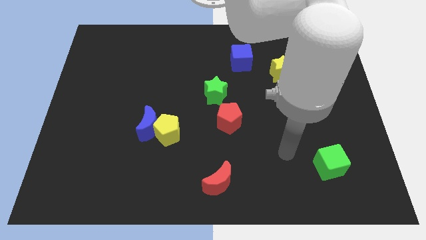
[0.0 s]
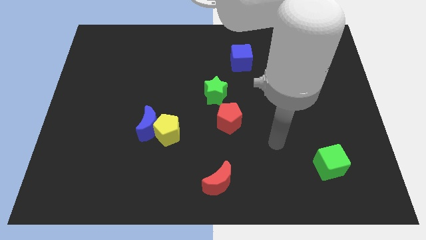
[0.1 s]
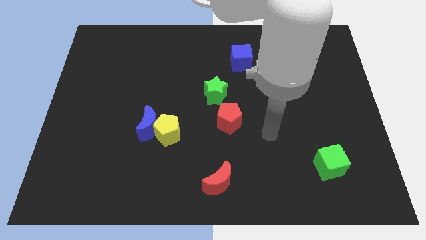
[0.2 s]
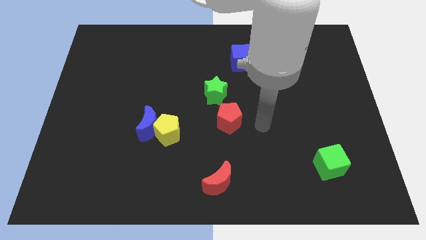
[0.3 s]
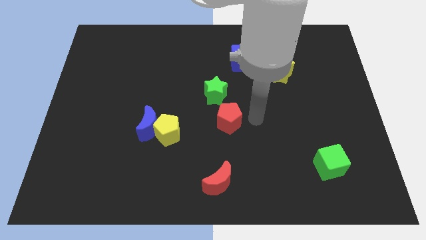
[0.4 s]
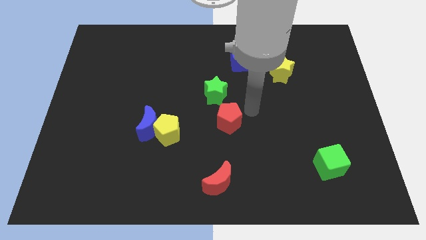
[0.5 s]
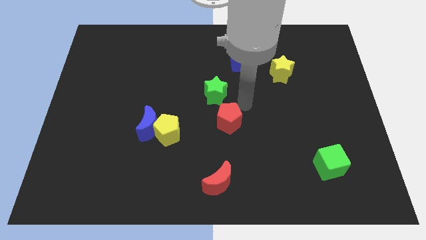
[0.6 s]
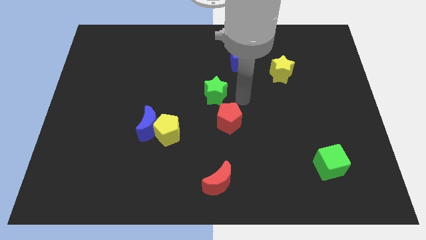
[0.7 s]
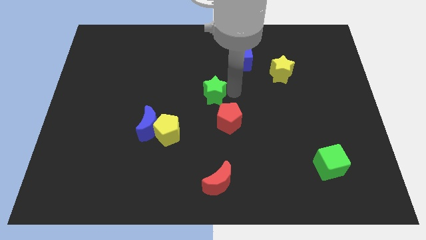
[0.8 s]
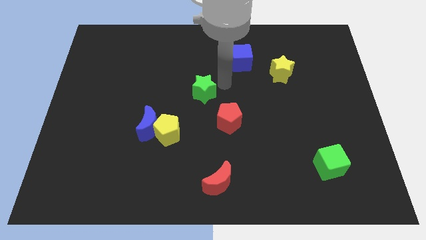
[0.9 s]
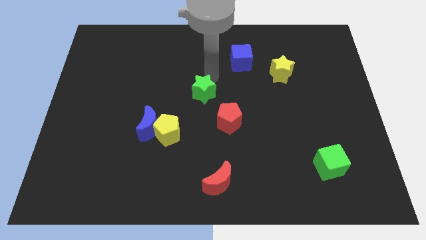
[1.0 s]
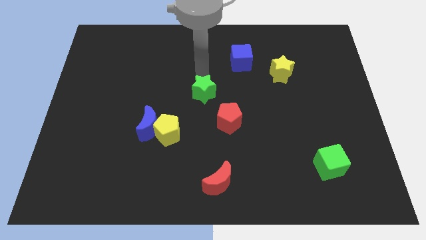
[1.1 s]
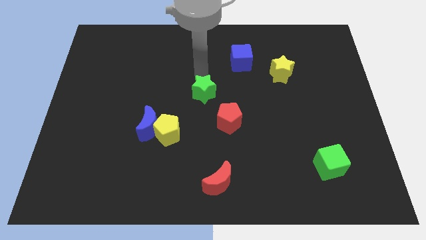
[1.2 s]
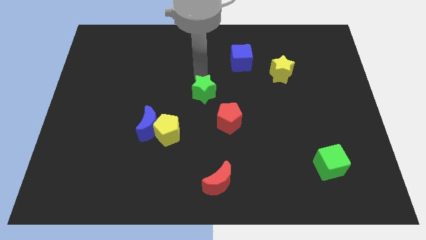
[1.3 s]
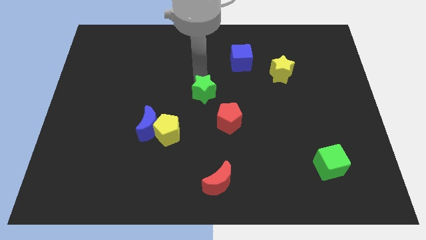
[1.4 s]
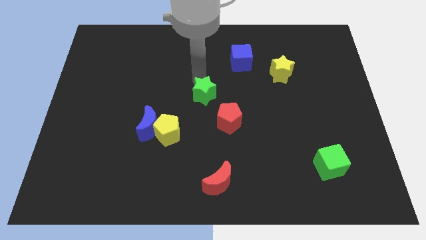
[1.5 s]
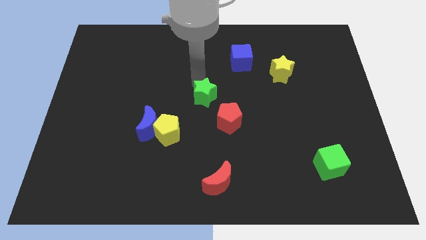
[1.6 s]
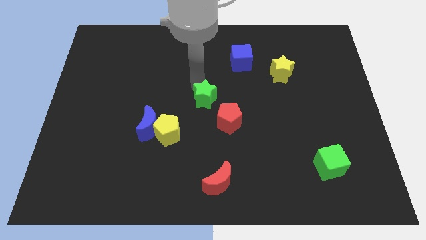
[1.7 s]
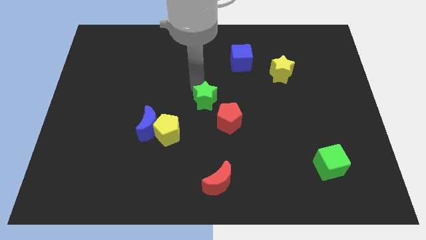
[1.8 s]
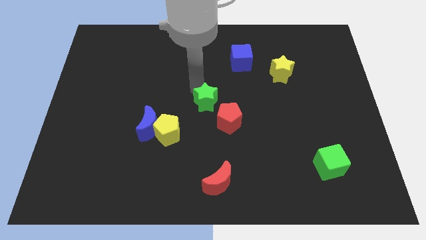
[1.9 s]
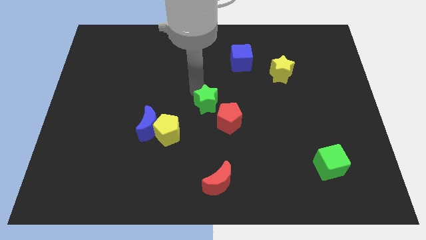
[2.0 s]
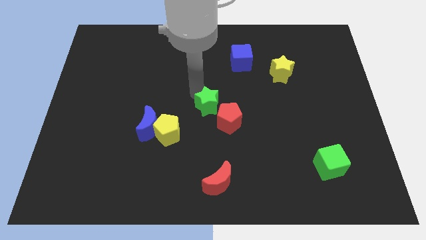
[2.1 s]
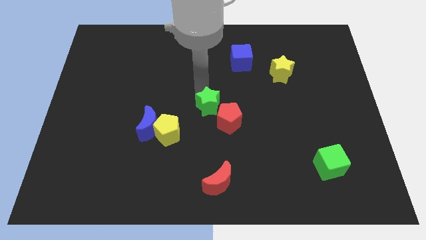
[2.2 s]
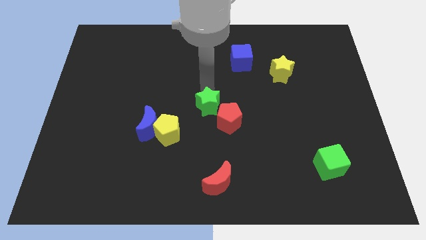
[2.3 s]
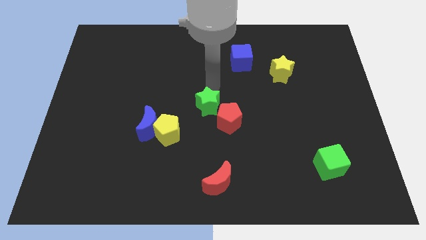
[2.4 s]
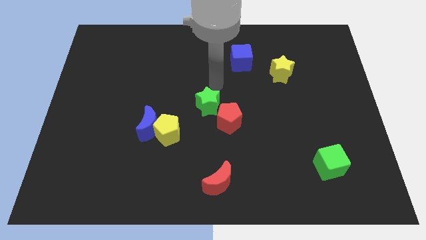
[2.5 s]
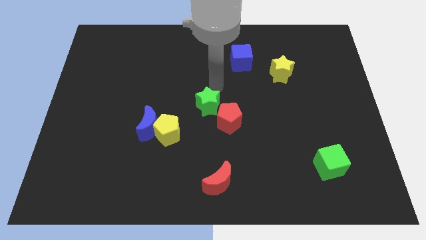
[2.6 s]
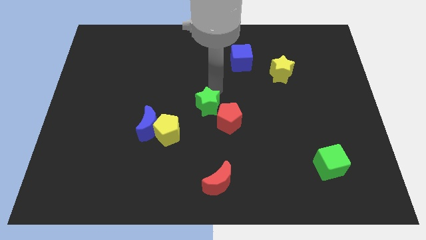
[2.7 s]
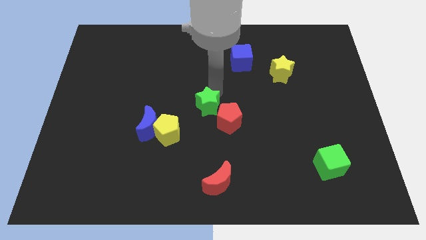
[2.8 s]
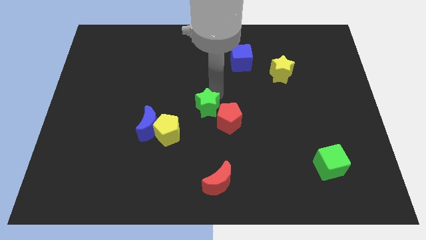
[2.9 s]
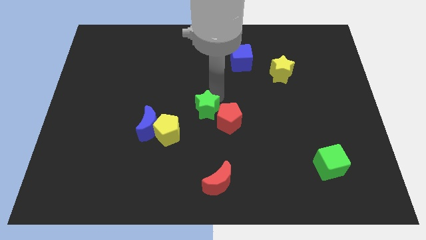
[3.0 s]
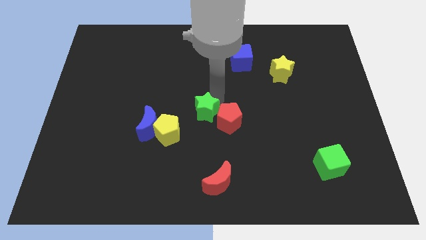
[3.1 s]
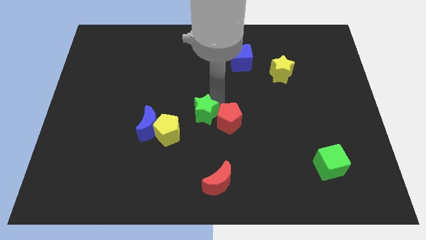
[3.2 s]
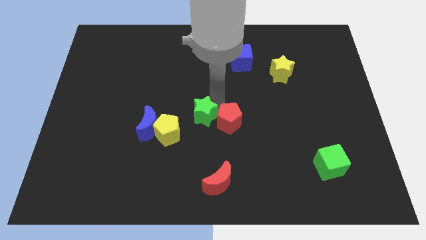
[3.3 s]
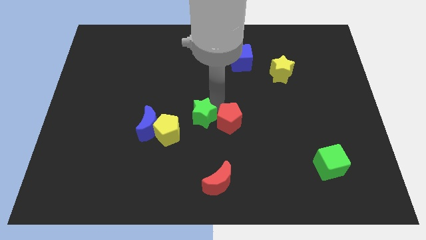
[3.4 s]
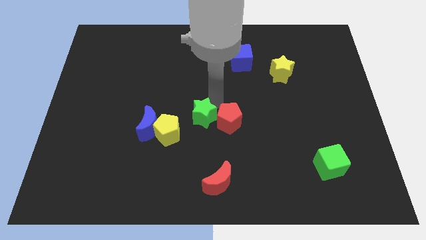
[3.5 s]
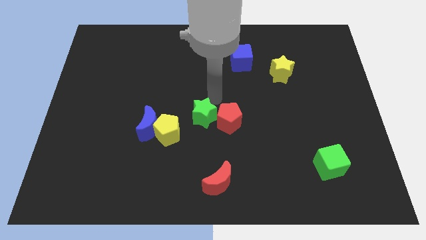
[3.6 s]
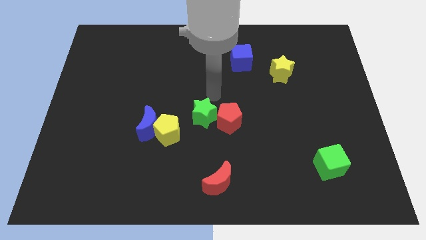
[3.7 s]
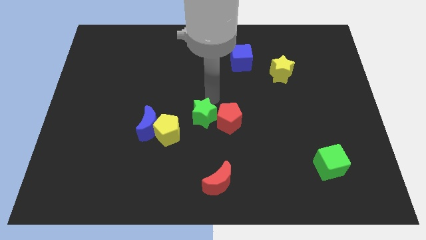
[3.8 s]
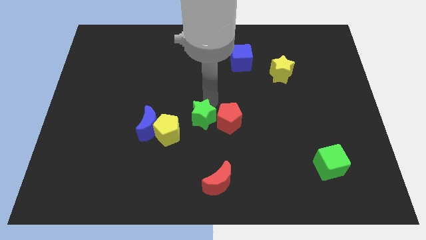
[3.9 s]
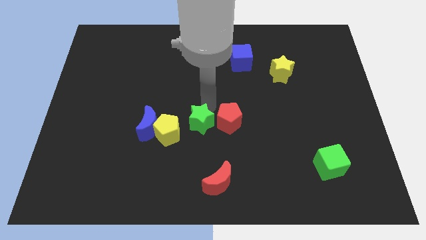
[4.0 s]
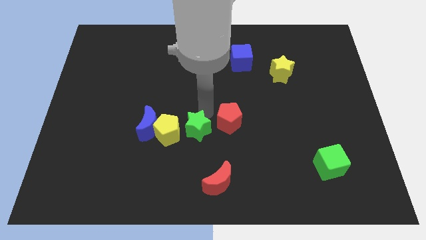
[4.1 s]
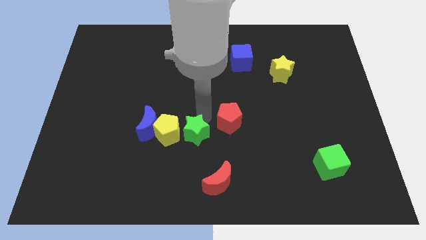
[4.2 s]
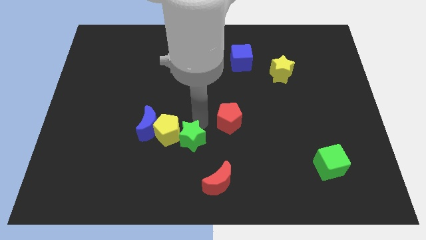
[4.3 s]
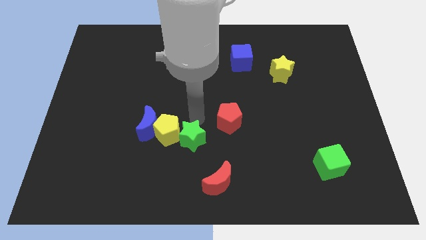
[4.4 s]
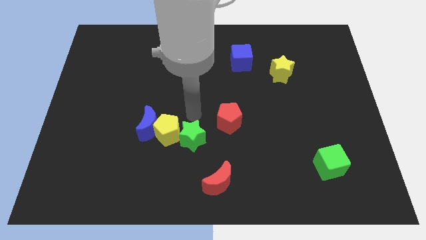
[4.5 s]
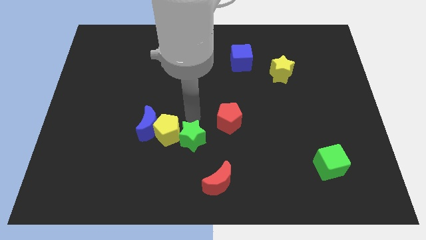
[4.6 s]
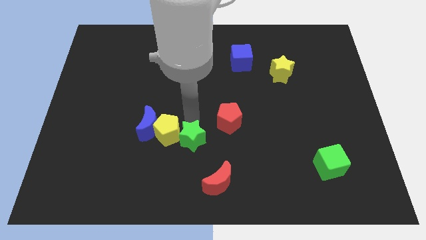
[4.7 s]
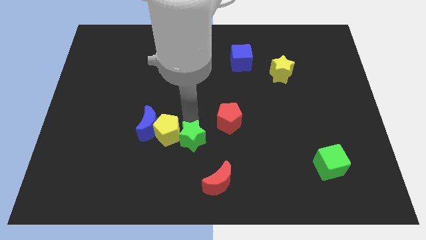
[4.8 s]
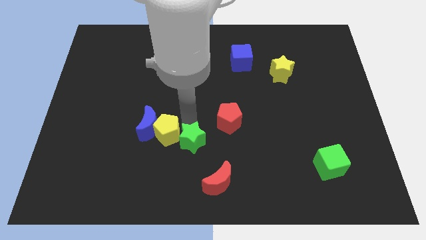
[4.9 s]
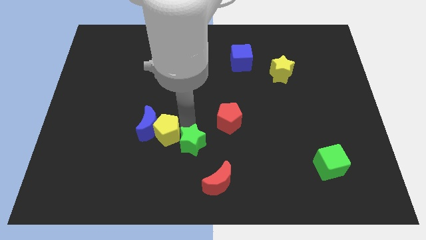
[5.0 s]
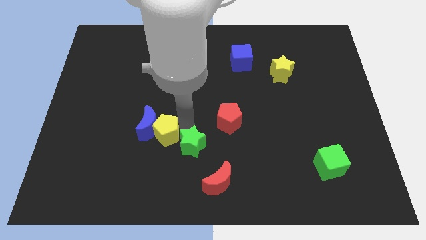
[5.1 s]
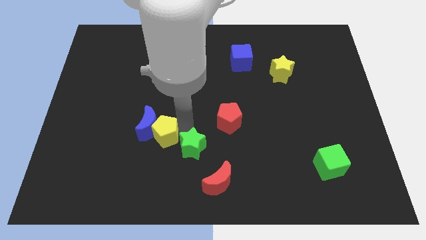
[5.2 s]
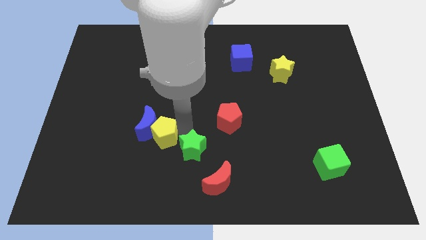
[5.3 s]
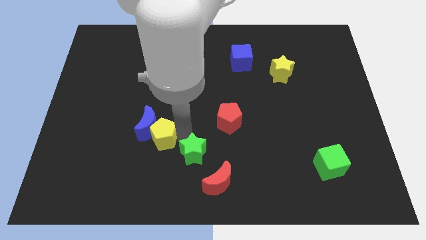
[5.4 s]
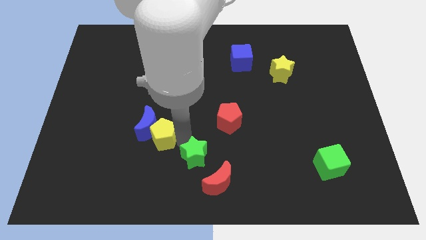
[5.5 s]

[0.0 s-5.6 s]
slide the green star to the bottom

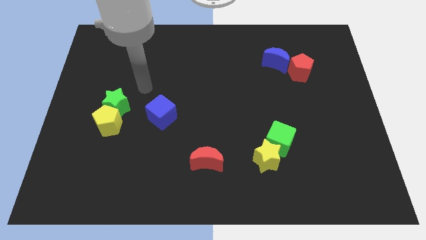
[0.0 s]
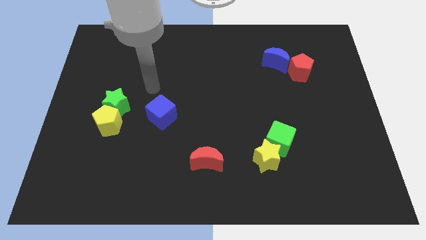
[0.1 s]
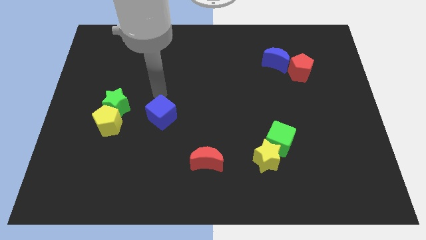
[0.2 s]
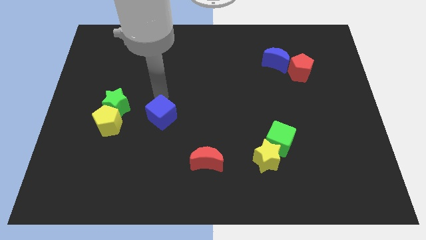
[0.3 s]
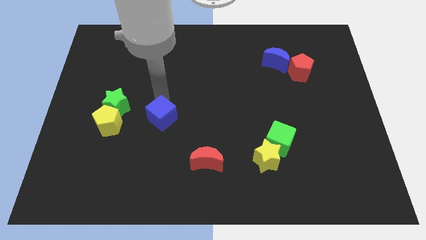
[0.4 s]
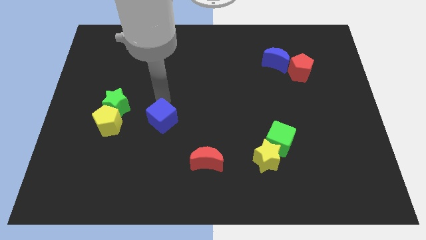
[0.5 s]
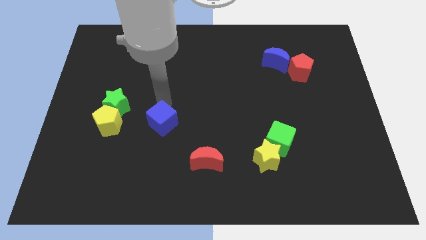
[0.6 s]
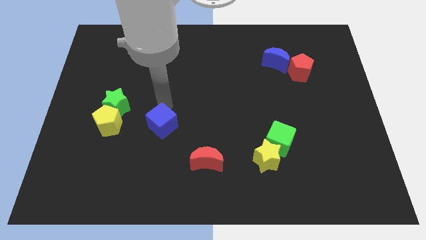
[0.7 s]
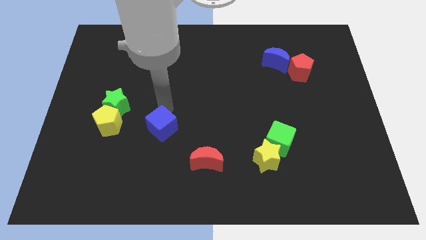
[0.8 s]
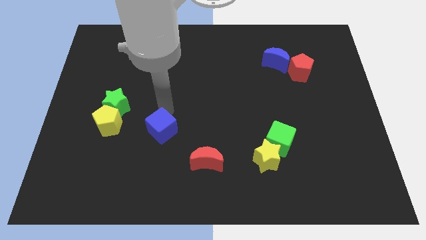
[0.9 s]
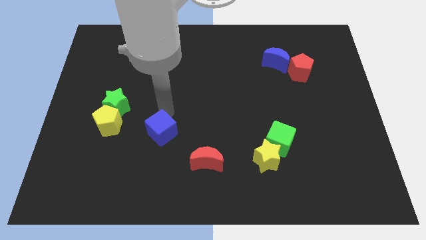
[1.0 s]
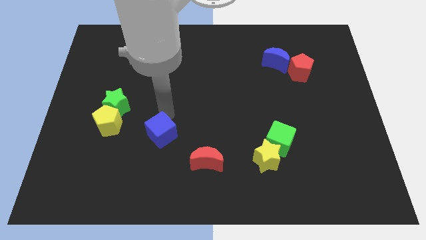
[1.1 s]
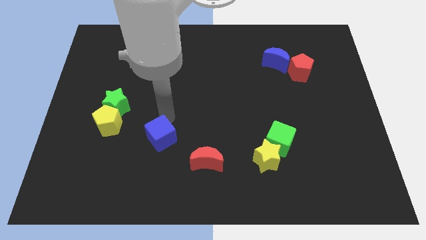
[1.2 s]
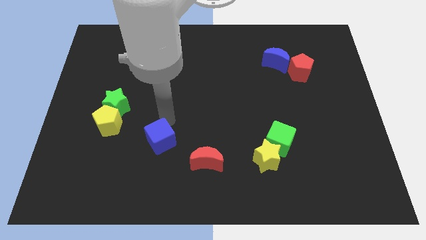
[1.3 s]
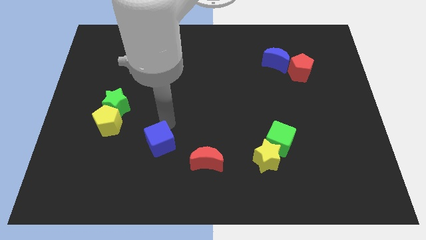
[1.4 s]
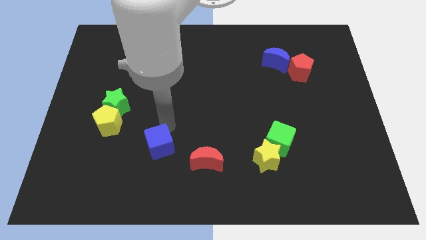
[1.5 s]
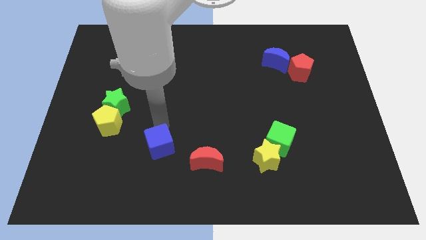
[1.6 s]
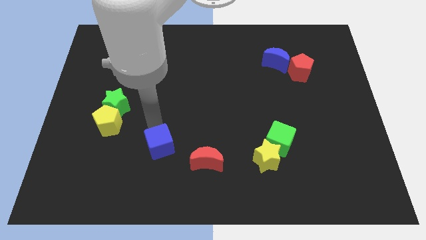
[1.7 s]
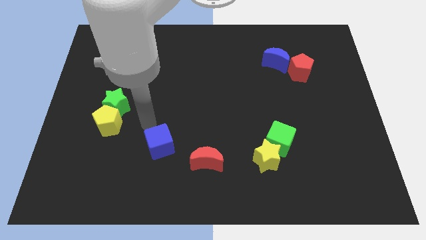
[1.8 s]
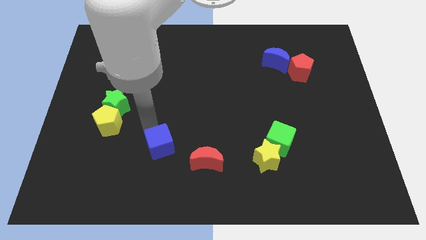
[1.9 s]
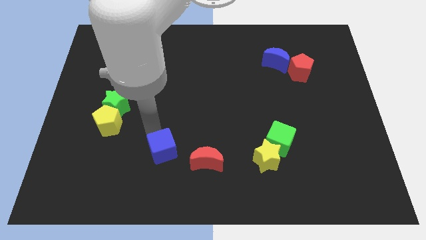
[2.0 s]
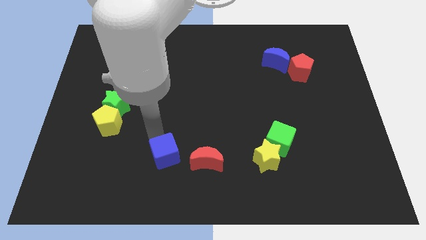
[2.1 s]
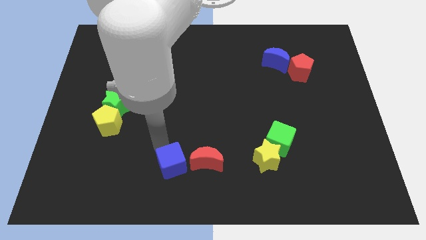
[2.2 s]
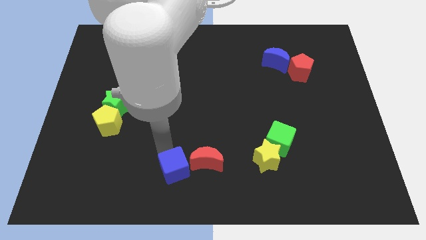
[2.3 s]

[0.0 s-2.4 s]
push the blue cube to the bottom
